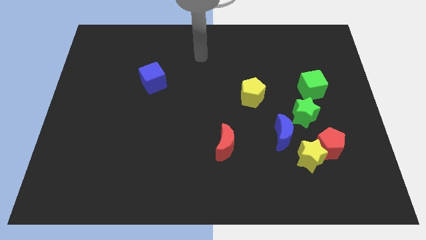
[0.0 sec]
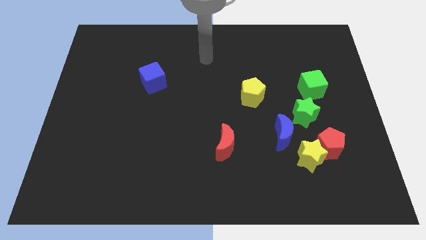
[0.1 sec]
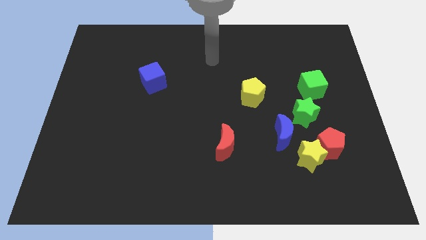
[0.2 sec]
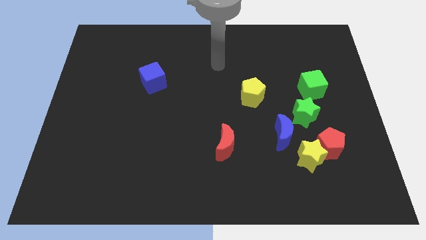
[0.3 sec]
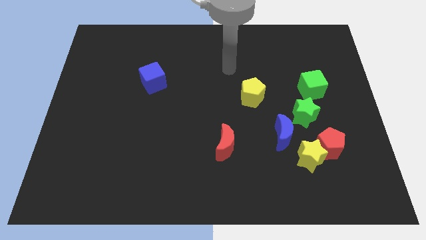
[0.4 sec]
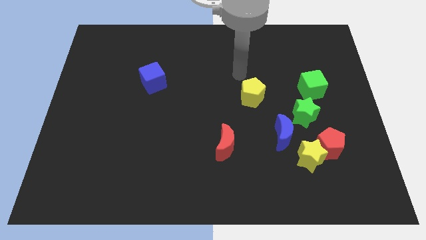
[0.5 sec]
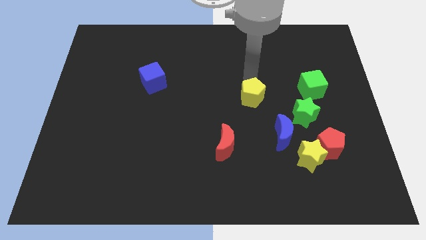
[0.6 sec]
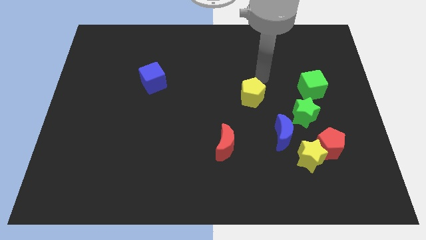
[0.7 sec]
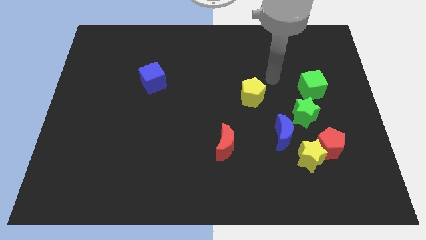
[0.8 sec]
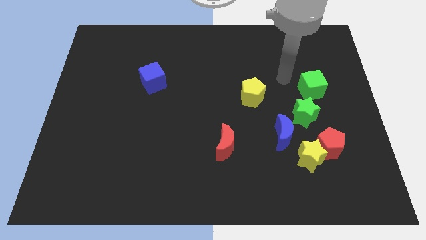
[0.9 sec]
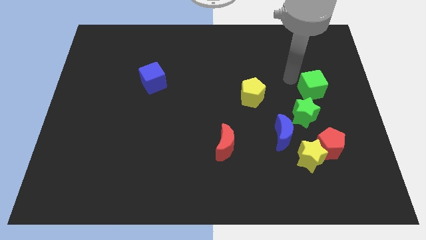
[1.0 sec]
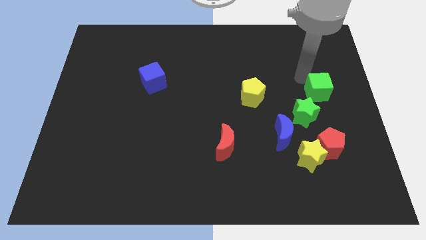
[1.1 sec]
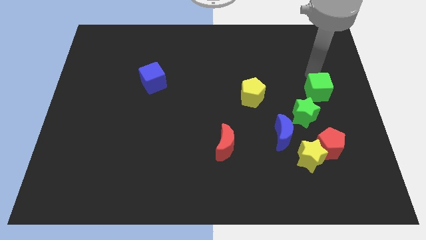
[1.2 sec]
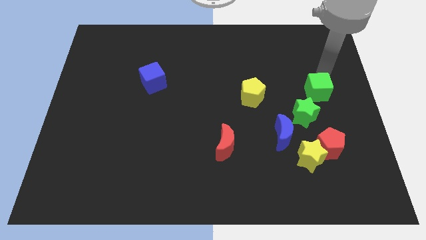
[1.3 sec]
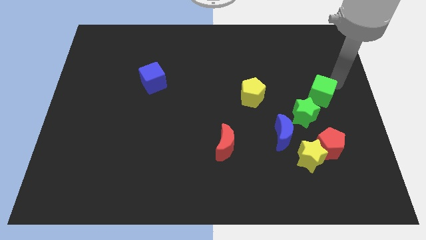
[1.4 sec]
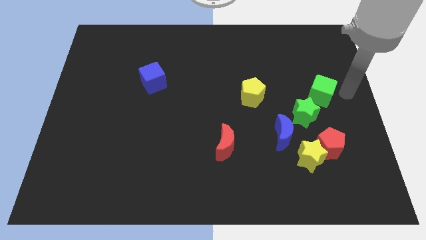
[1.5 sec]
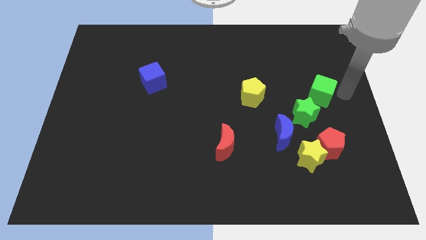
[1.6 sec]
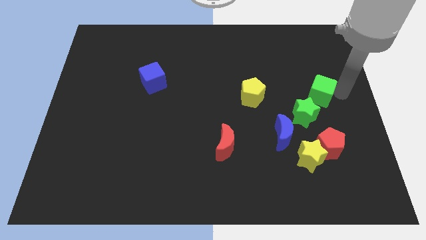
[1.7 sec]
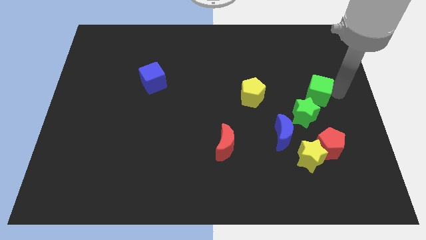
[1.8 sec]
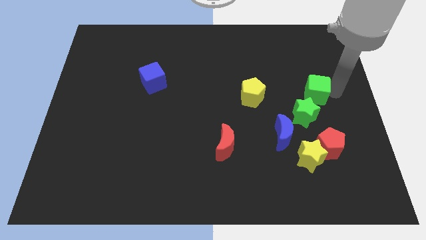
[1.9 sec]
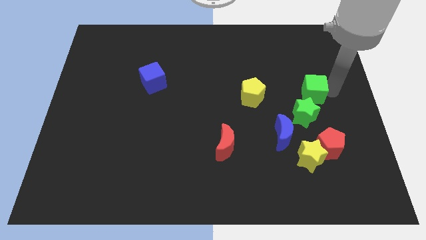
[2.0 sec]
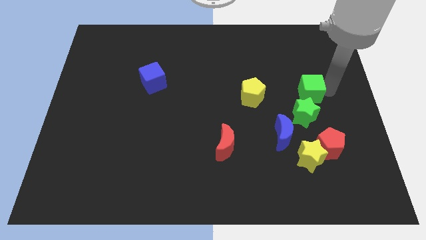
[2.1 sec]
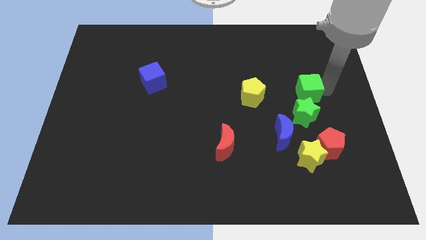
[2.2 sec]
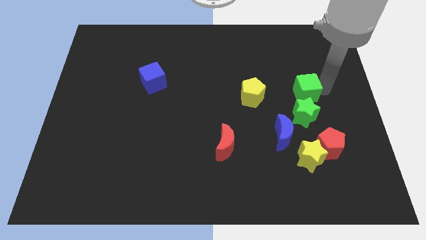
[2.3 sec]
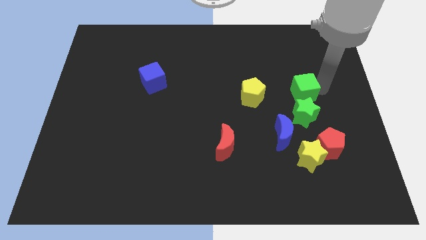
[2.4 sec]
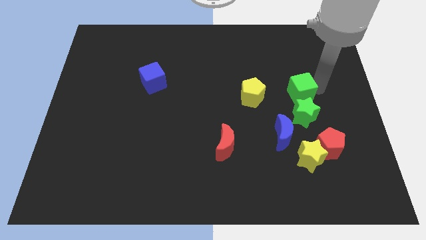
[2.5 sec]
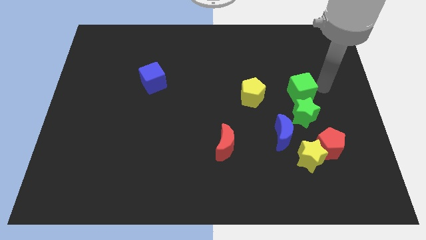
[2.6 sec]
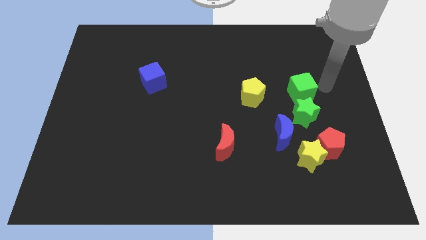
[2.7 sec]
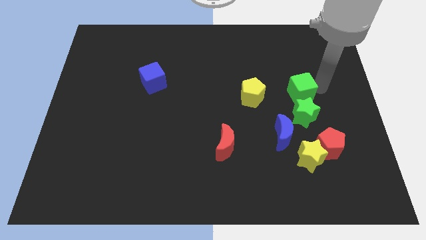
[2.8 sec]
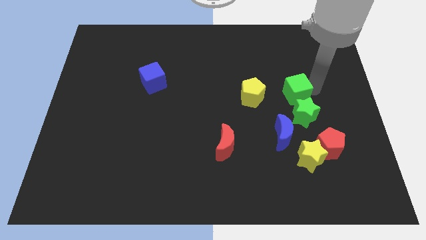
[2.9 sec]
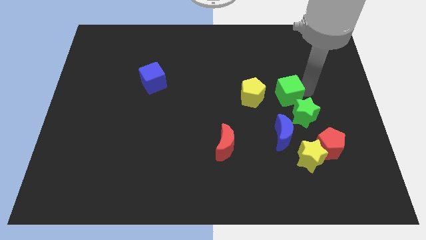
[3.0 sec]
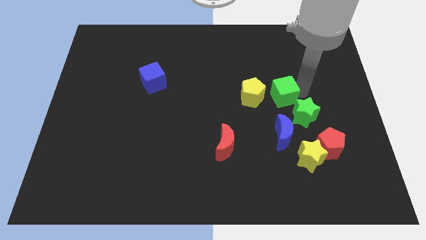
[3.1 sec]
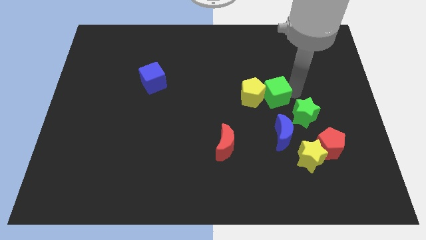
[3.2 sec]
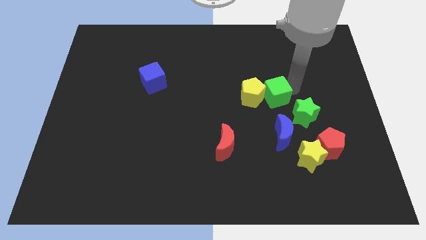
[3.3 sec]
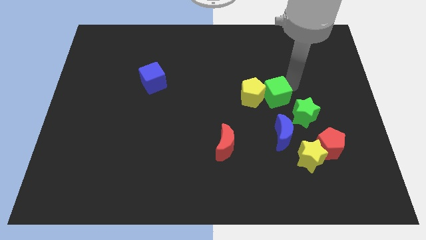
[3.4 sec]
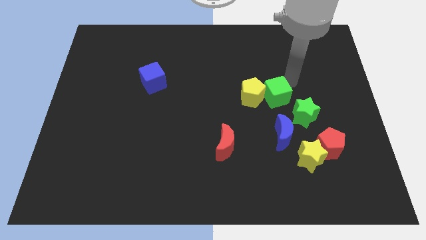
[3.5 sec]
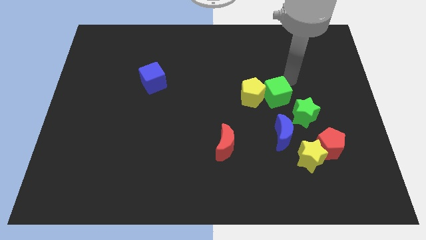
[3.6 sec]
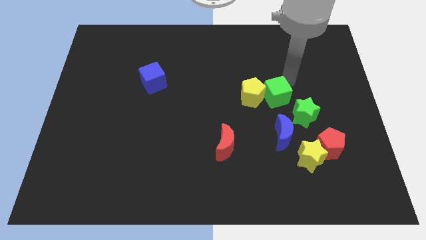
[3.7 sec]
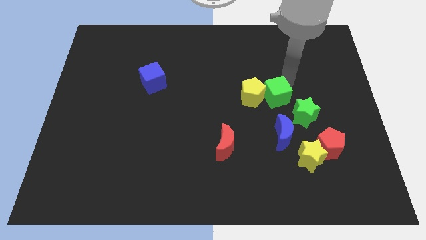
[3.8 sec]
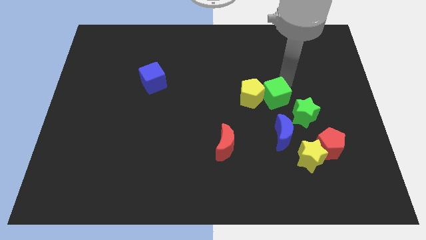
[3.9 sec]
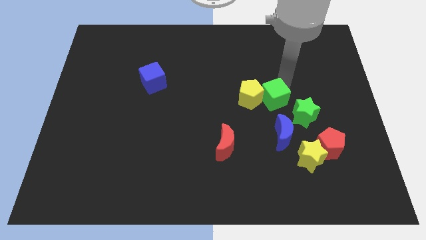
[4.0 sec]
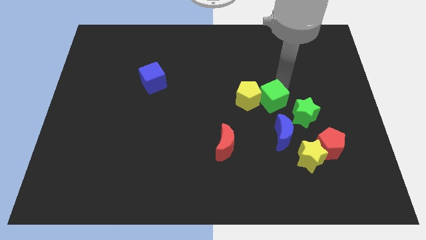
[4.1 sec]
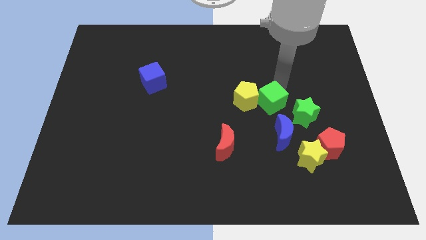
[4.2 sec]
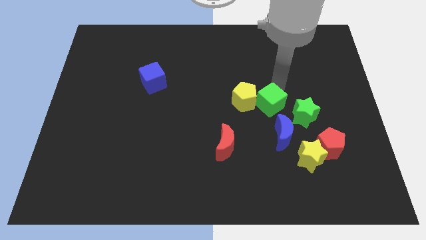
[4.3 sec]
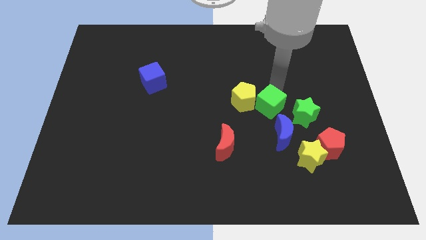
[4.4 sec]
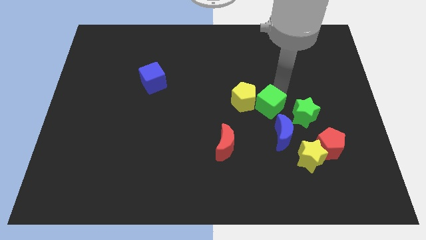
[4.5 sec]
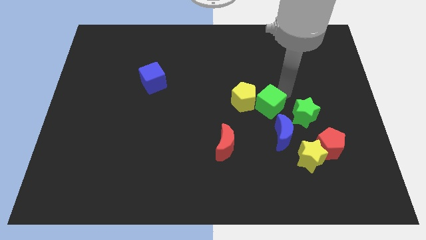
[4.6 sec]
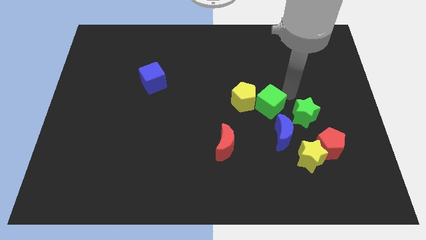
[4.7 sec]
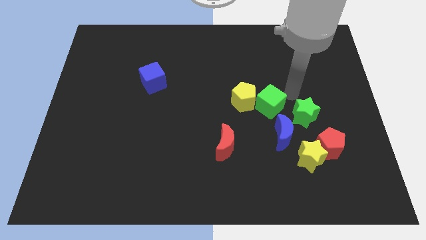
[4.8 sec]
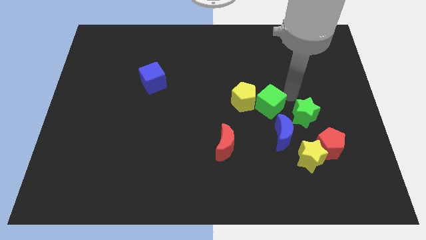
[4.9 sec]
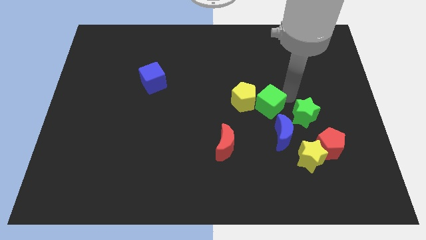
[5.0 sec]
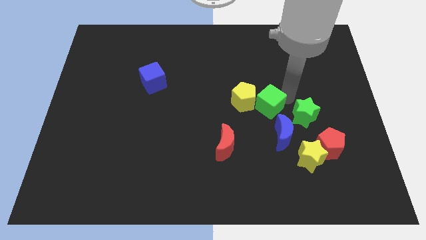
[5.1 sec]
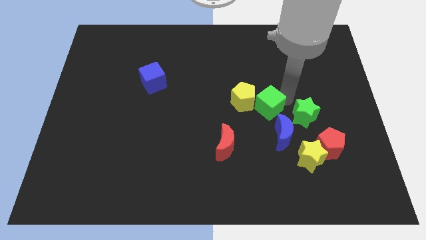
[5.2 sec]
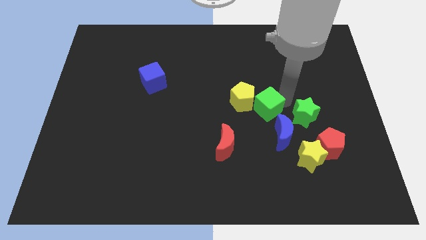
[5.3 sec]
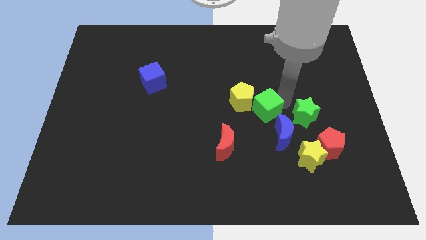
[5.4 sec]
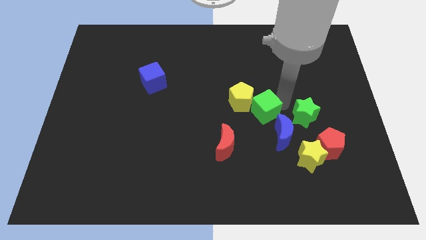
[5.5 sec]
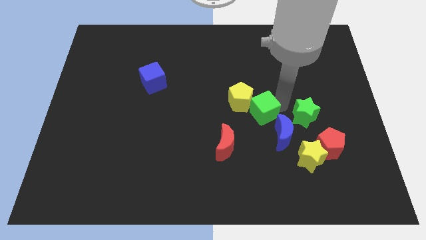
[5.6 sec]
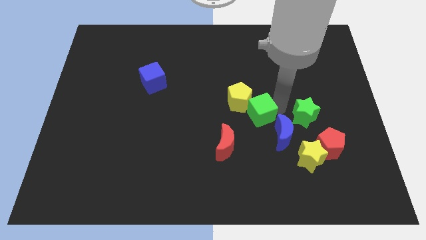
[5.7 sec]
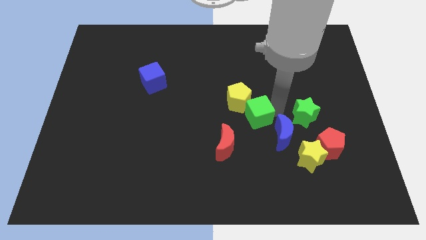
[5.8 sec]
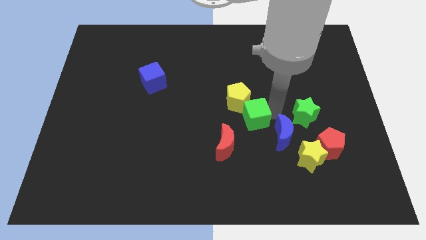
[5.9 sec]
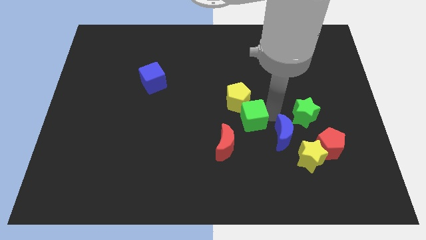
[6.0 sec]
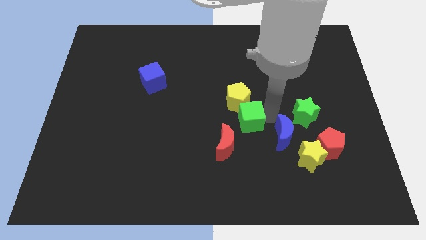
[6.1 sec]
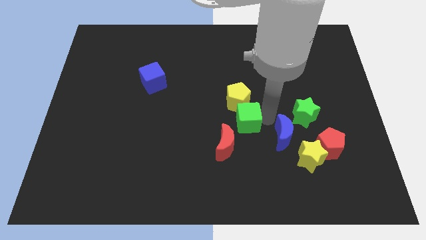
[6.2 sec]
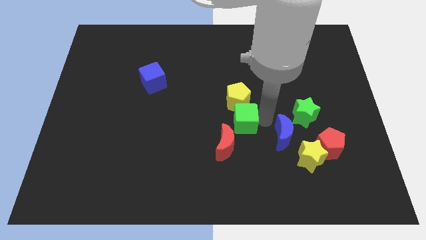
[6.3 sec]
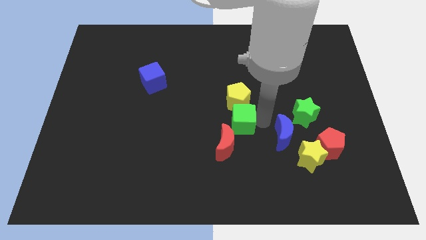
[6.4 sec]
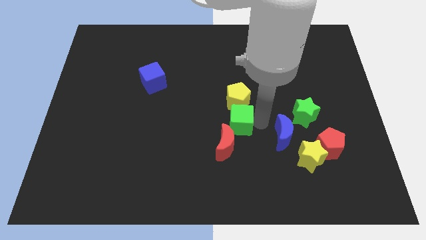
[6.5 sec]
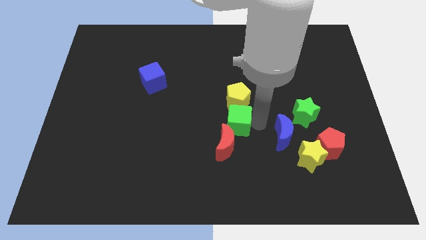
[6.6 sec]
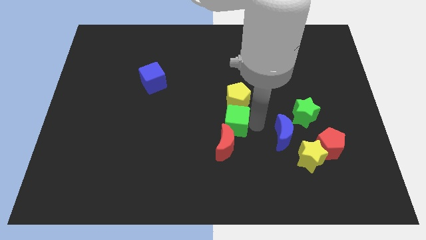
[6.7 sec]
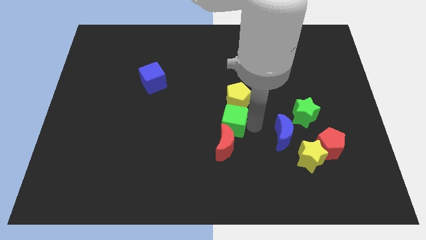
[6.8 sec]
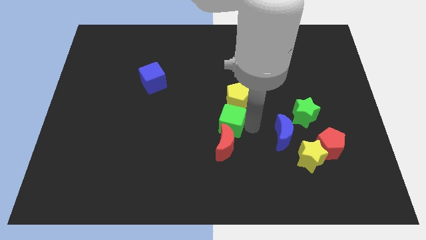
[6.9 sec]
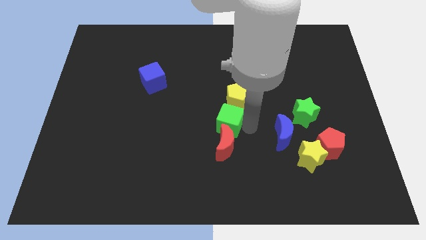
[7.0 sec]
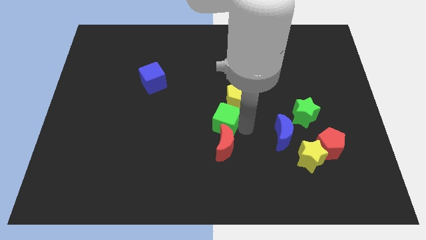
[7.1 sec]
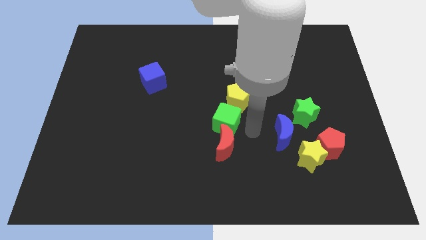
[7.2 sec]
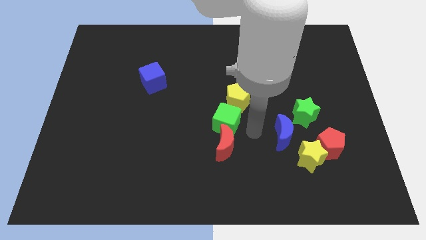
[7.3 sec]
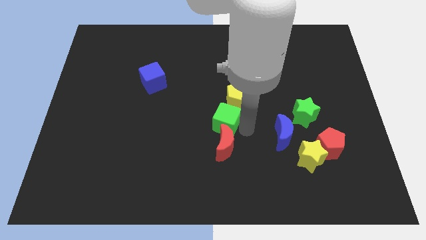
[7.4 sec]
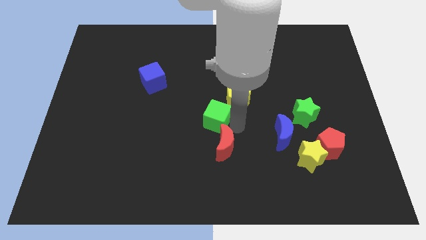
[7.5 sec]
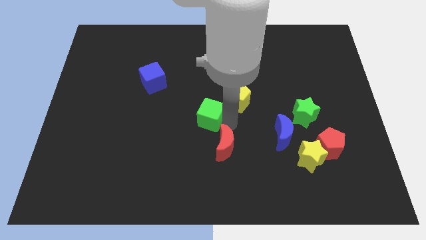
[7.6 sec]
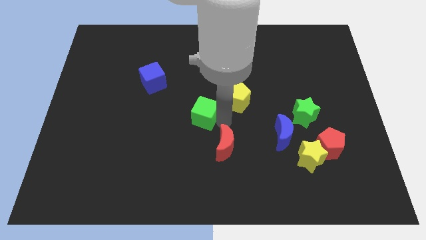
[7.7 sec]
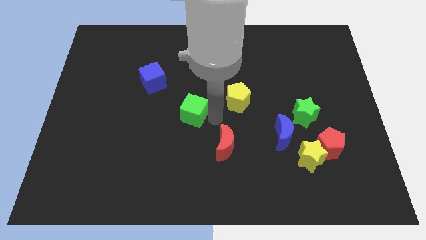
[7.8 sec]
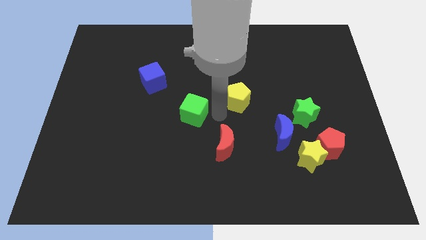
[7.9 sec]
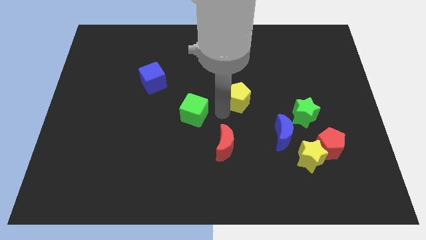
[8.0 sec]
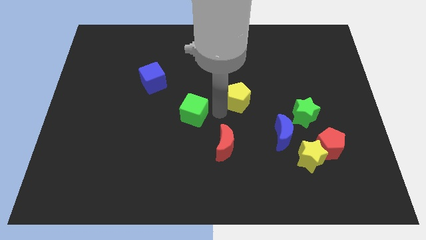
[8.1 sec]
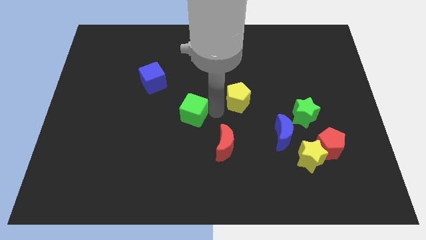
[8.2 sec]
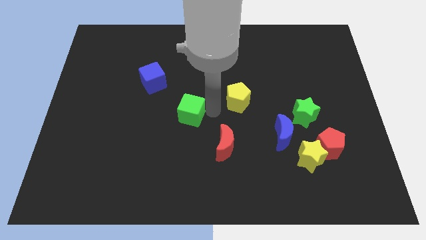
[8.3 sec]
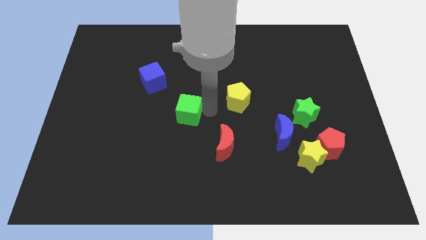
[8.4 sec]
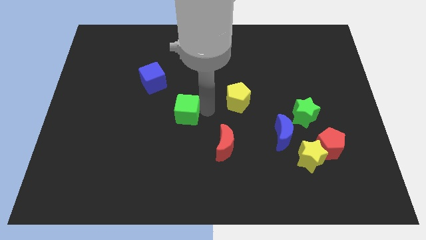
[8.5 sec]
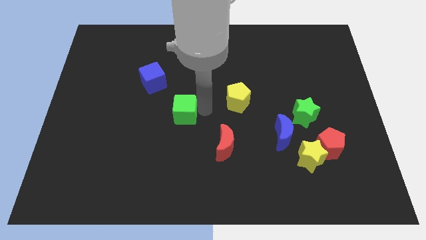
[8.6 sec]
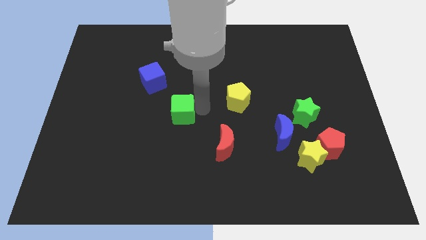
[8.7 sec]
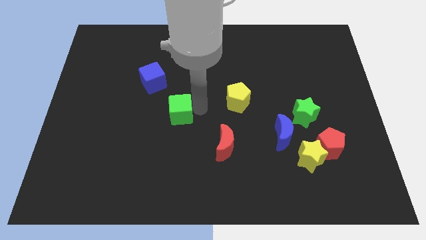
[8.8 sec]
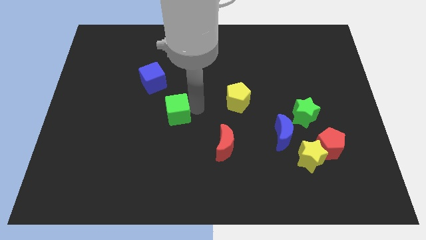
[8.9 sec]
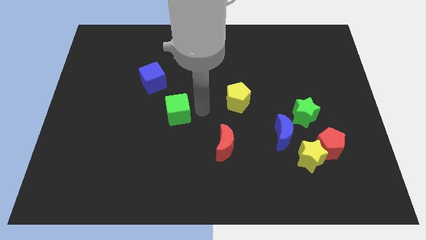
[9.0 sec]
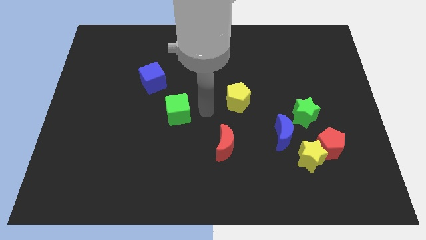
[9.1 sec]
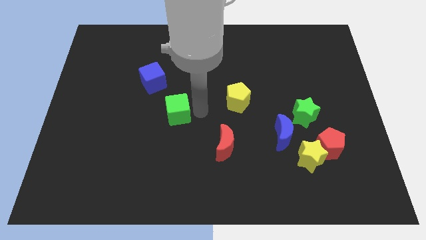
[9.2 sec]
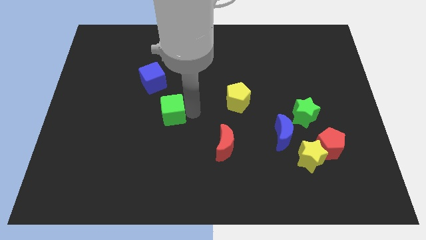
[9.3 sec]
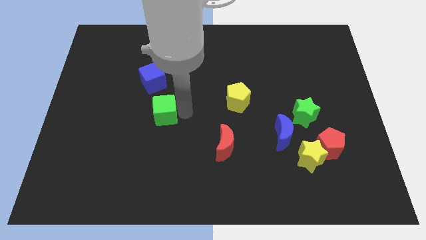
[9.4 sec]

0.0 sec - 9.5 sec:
put the green cube to the bottom side of the blue cube
